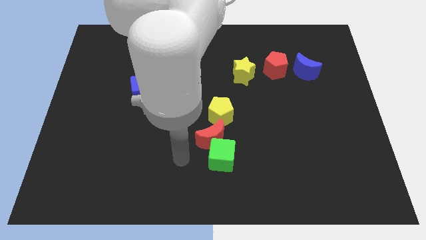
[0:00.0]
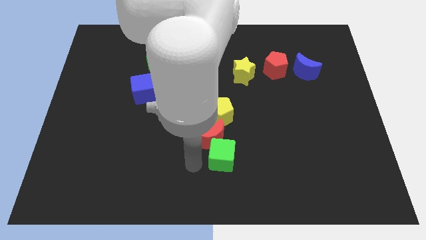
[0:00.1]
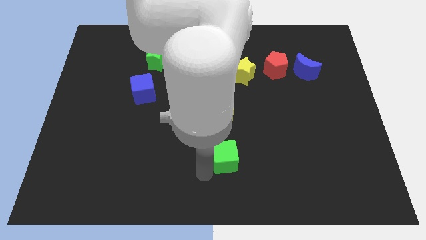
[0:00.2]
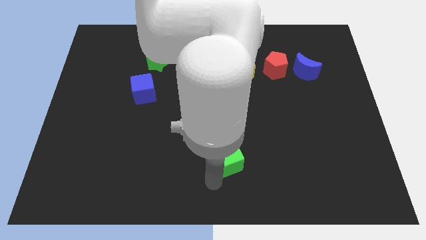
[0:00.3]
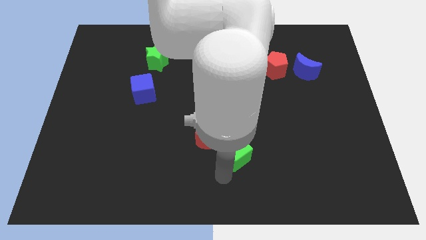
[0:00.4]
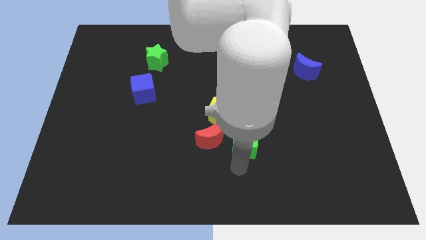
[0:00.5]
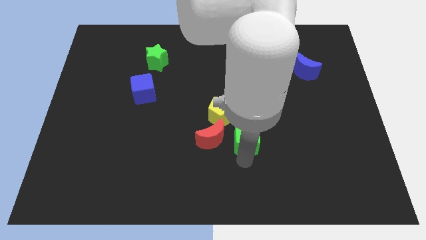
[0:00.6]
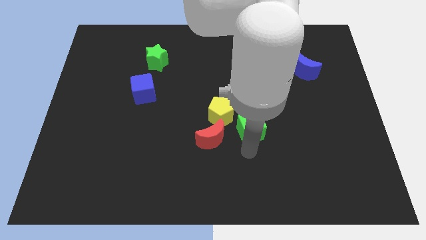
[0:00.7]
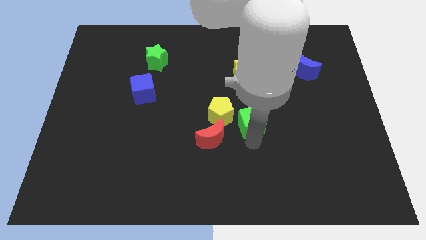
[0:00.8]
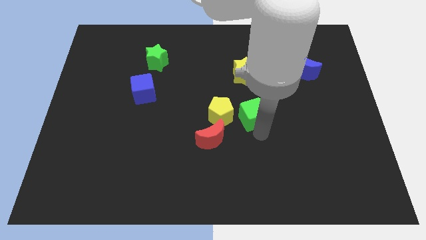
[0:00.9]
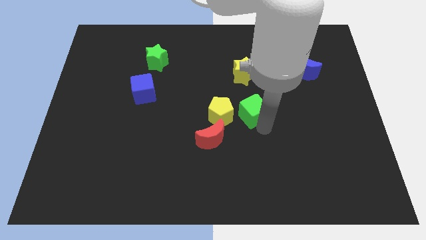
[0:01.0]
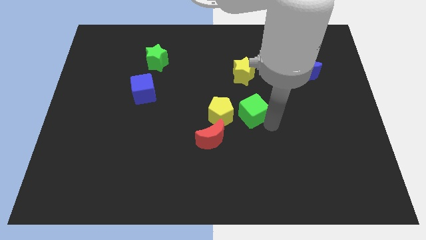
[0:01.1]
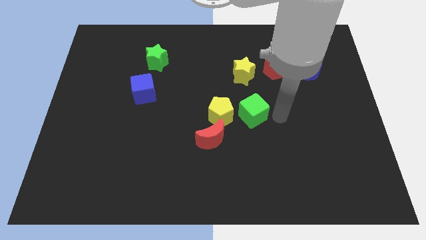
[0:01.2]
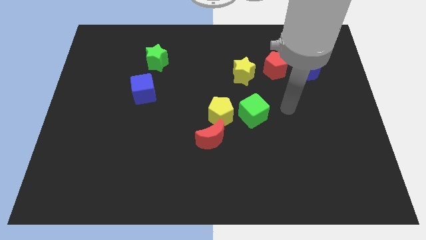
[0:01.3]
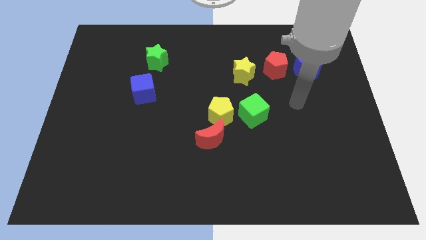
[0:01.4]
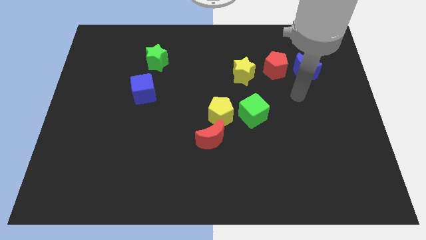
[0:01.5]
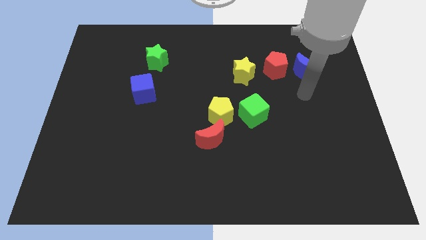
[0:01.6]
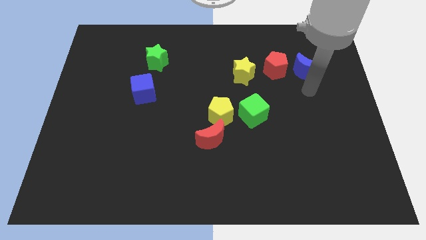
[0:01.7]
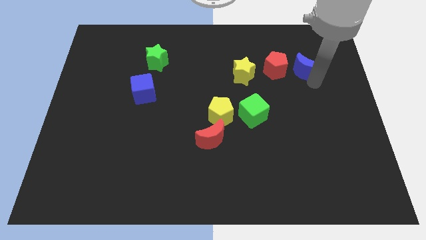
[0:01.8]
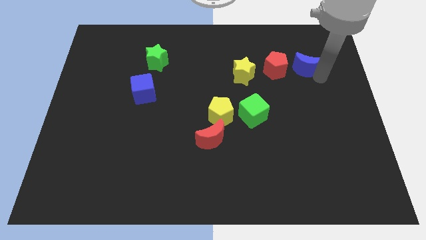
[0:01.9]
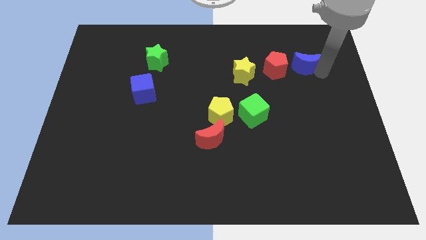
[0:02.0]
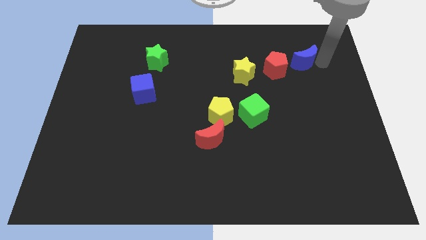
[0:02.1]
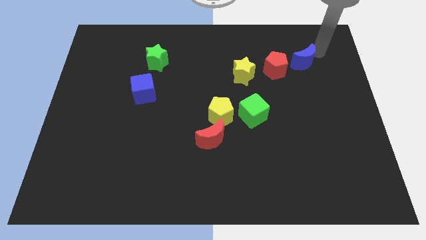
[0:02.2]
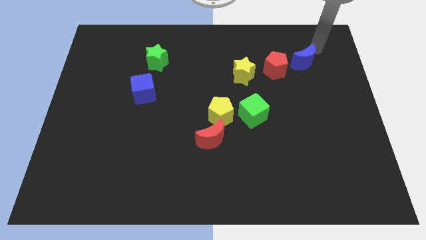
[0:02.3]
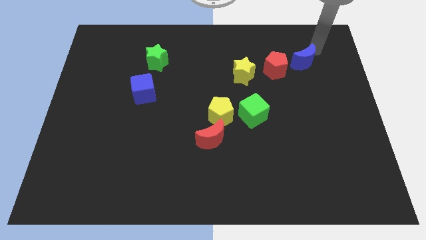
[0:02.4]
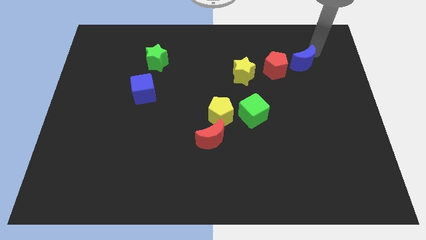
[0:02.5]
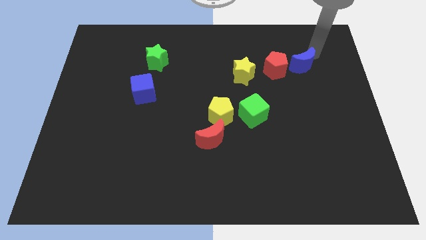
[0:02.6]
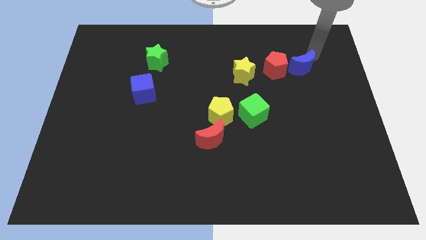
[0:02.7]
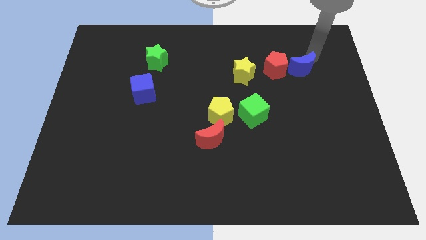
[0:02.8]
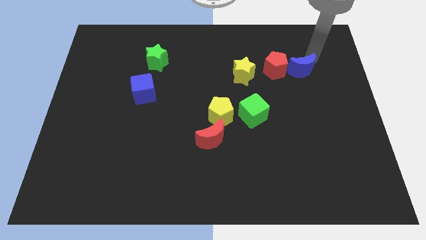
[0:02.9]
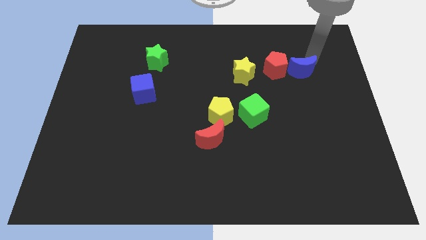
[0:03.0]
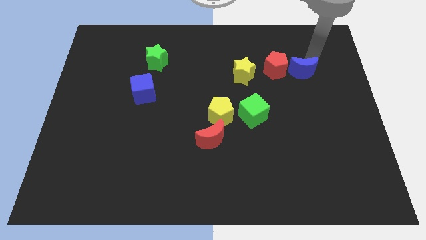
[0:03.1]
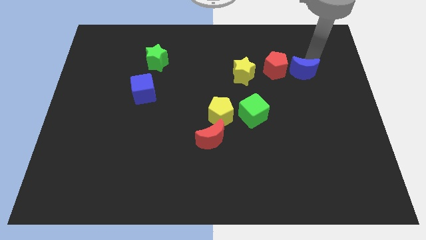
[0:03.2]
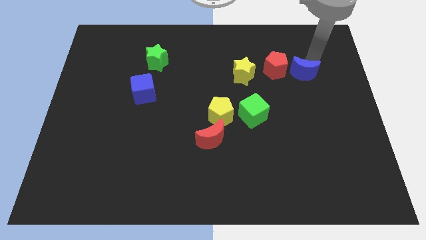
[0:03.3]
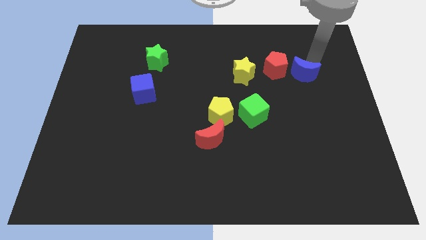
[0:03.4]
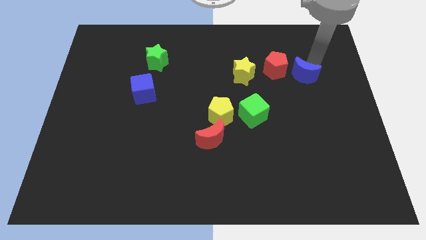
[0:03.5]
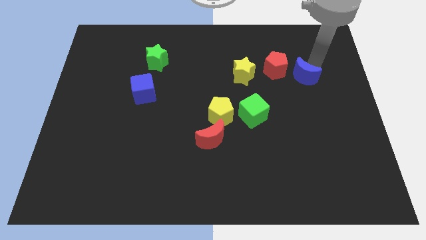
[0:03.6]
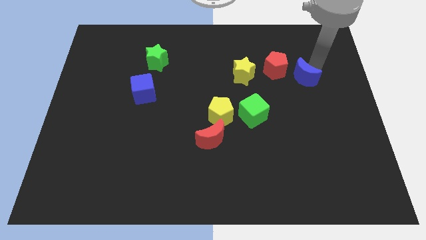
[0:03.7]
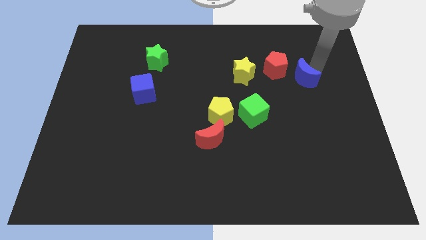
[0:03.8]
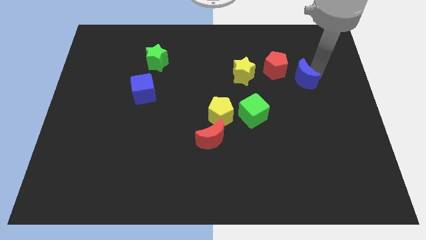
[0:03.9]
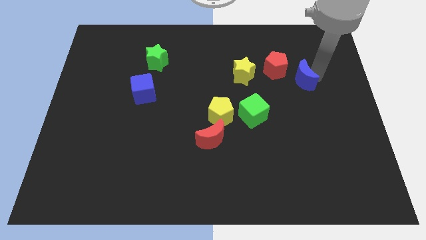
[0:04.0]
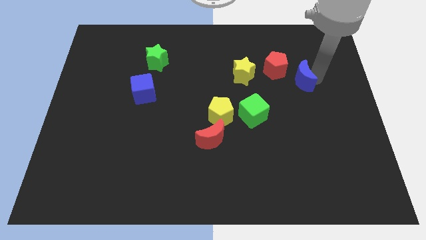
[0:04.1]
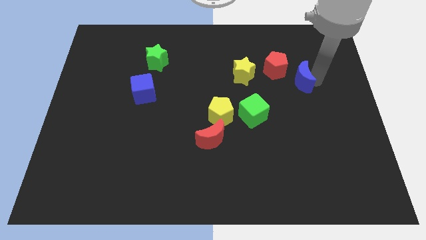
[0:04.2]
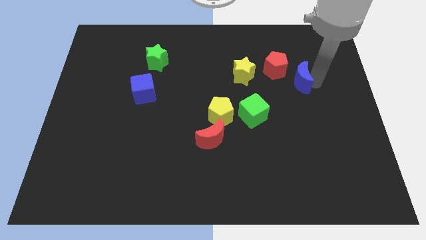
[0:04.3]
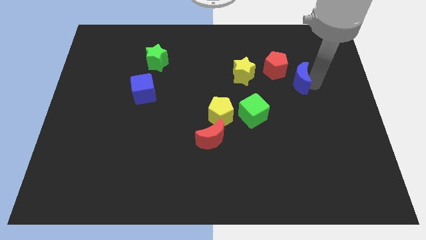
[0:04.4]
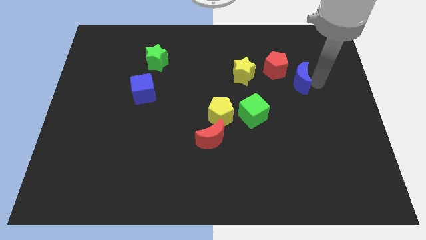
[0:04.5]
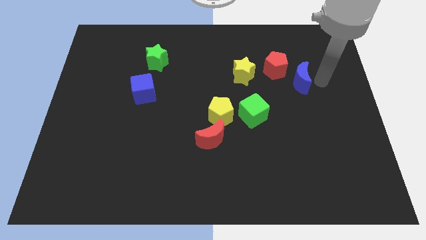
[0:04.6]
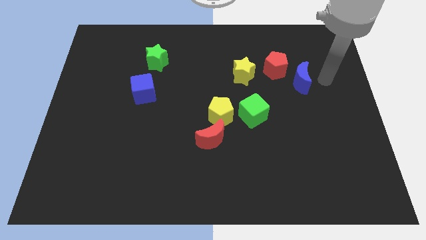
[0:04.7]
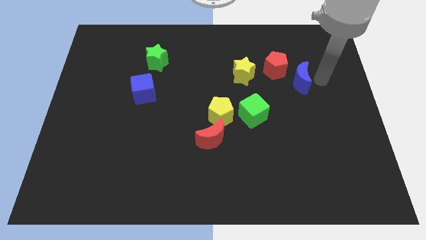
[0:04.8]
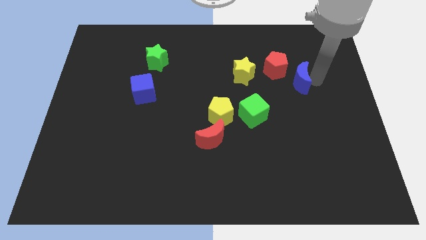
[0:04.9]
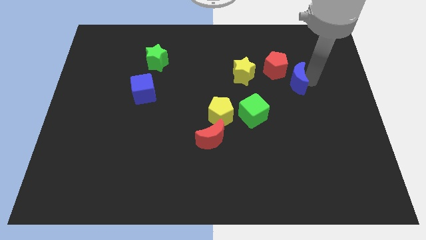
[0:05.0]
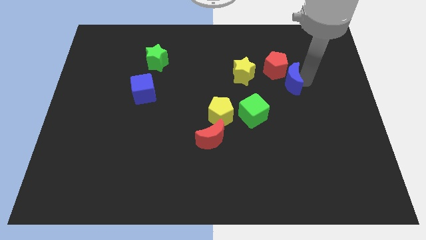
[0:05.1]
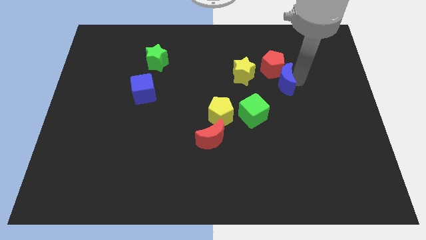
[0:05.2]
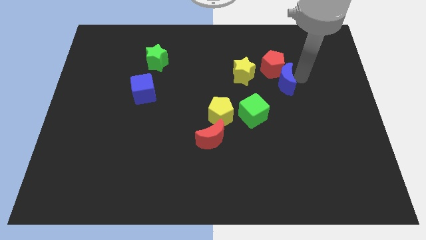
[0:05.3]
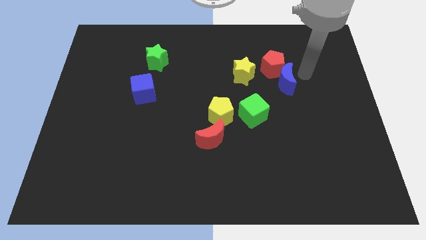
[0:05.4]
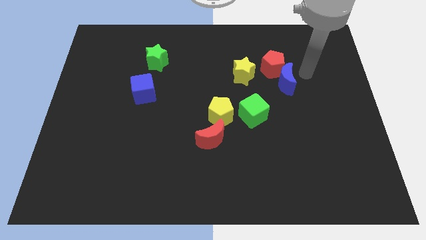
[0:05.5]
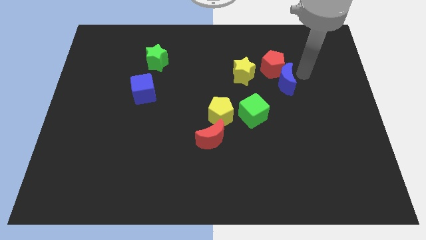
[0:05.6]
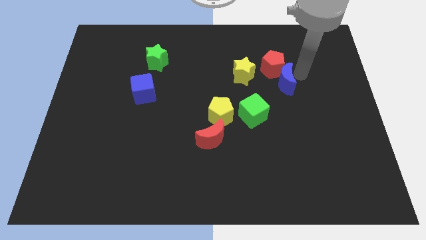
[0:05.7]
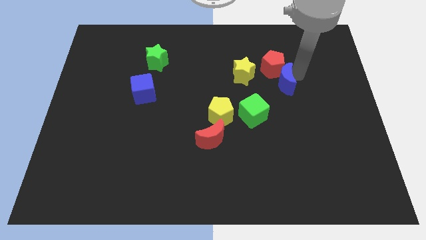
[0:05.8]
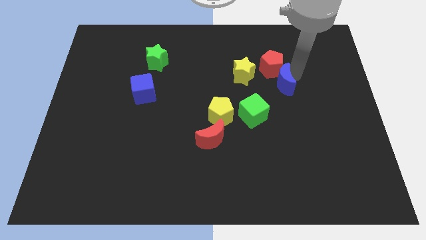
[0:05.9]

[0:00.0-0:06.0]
slide the blue moon to the bottom right of the yellow star

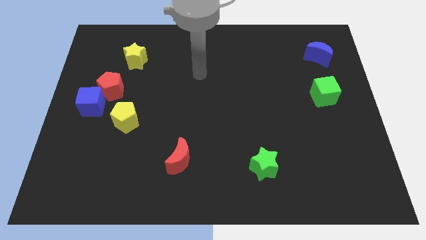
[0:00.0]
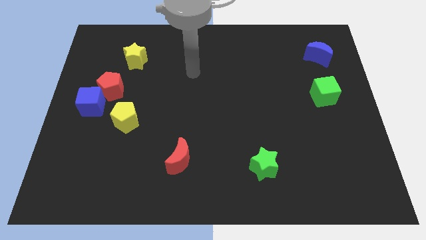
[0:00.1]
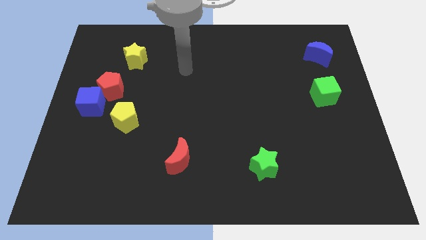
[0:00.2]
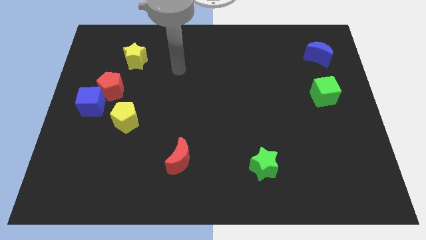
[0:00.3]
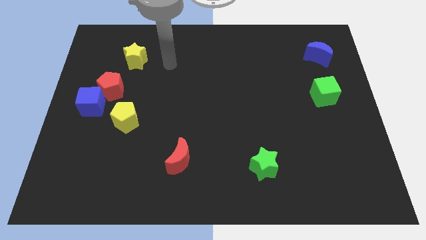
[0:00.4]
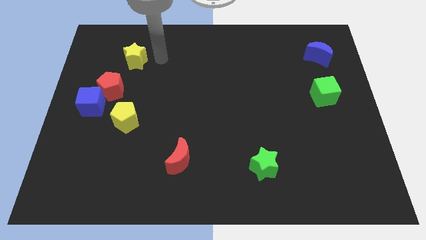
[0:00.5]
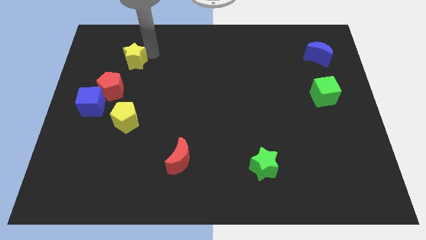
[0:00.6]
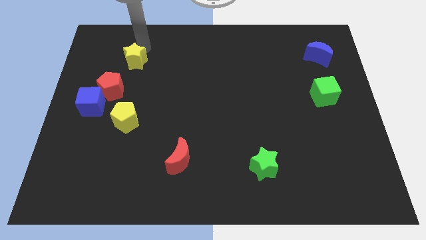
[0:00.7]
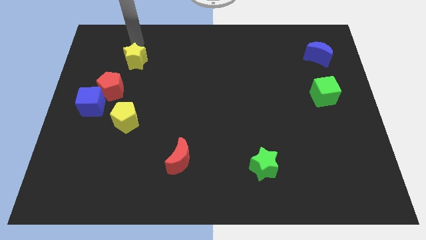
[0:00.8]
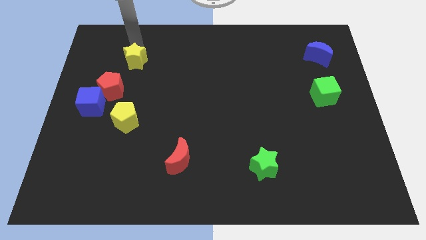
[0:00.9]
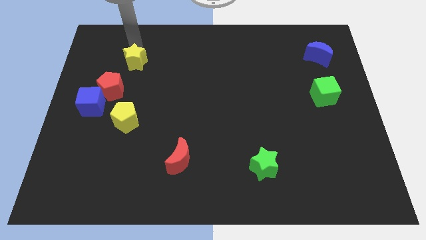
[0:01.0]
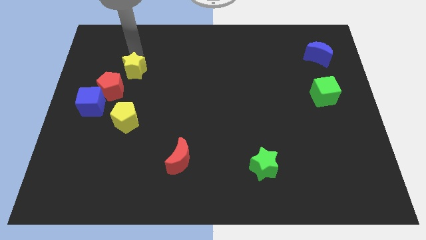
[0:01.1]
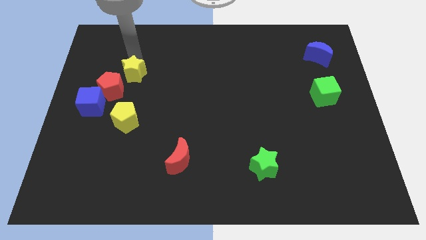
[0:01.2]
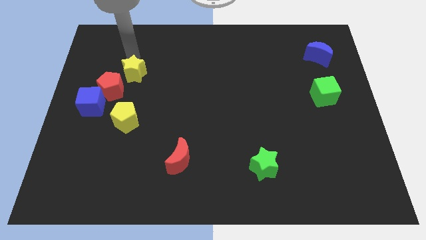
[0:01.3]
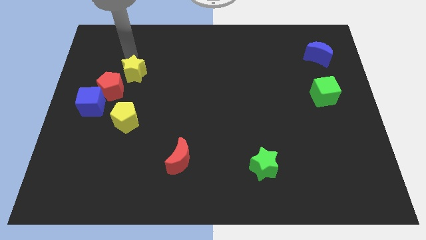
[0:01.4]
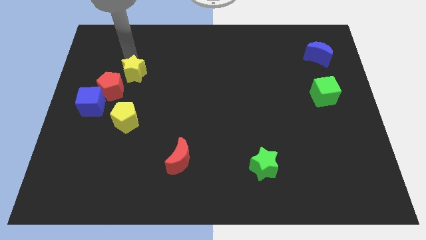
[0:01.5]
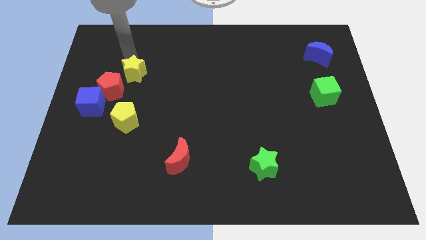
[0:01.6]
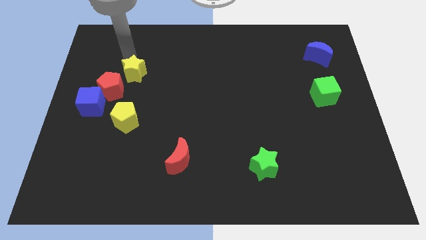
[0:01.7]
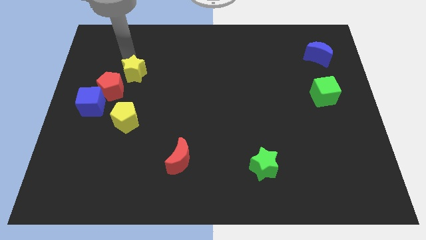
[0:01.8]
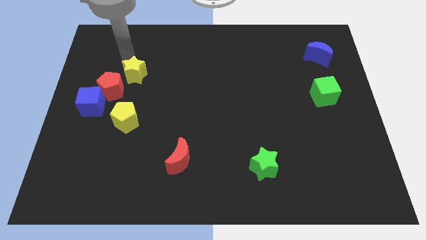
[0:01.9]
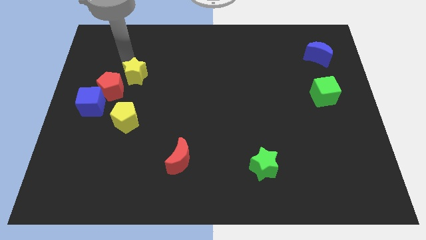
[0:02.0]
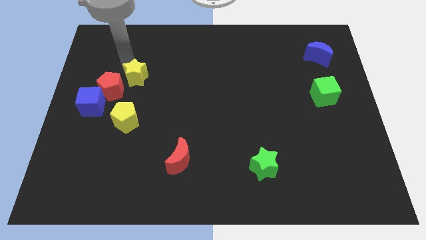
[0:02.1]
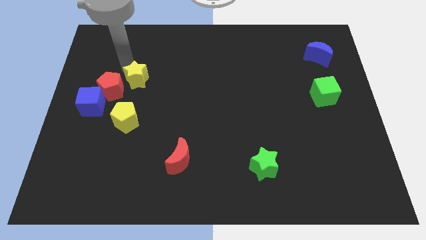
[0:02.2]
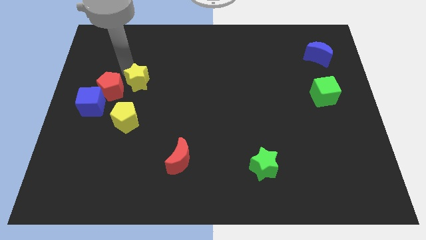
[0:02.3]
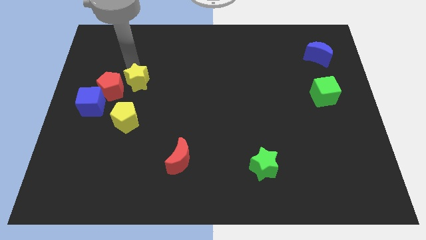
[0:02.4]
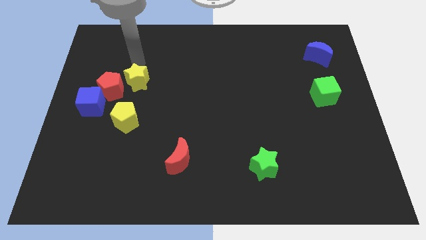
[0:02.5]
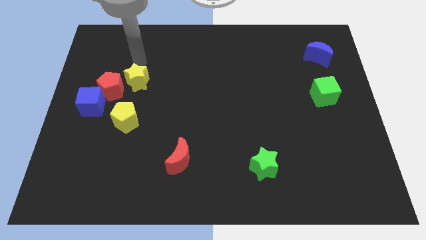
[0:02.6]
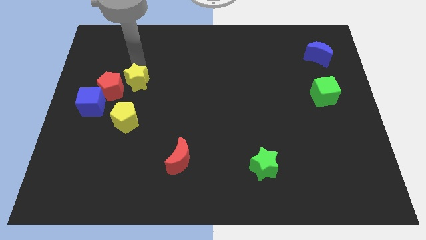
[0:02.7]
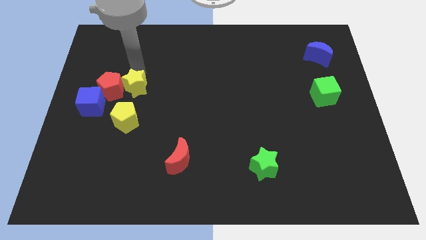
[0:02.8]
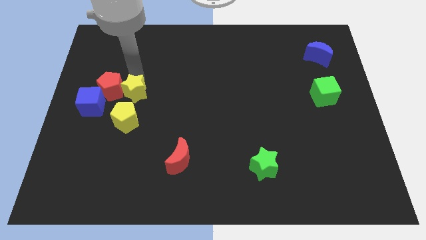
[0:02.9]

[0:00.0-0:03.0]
push the yellow star to the right side of the blue cube
